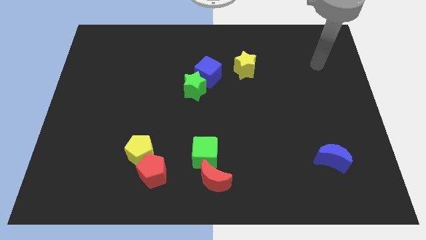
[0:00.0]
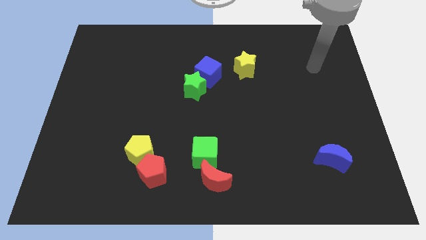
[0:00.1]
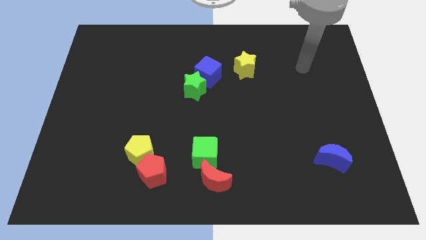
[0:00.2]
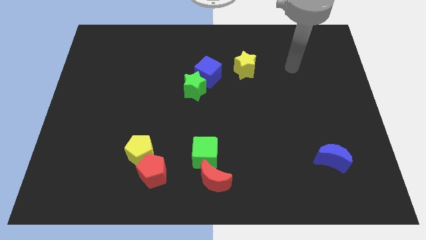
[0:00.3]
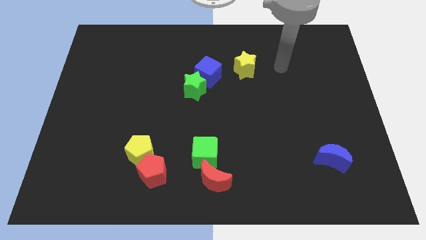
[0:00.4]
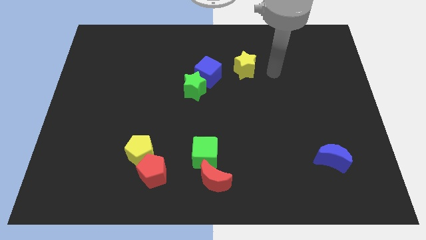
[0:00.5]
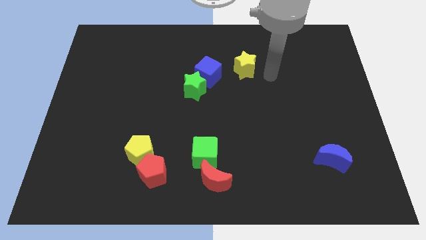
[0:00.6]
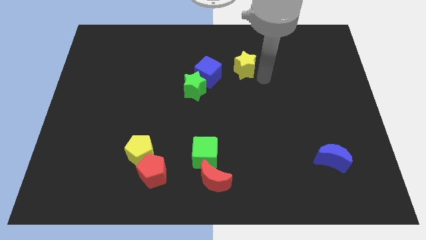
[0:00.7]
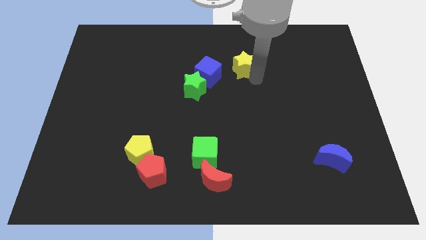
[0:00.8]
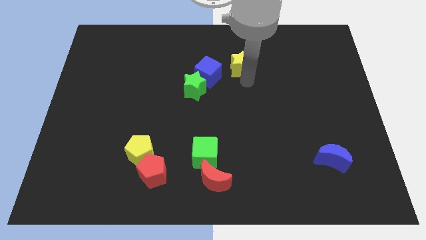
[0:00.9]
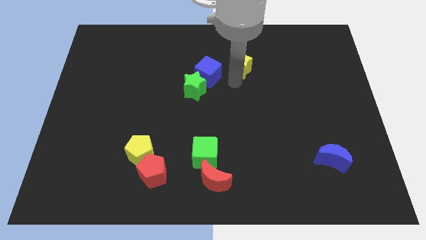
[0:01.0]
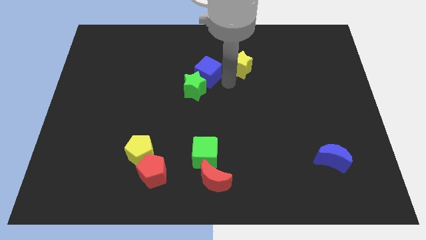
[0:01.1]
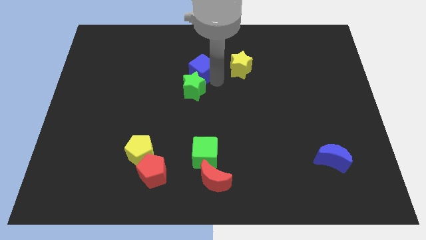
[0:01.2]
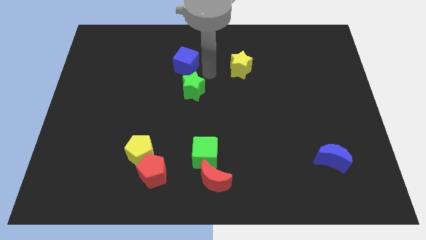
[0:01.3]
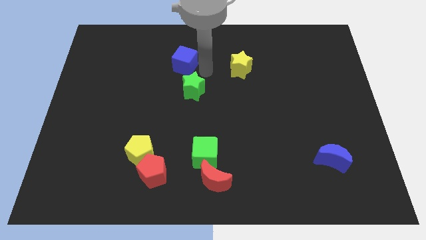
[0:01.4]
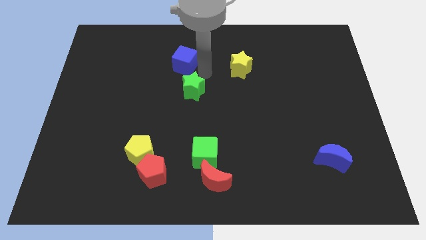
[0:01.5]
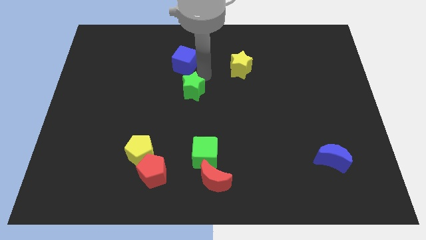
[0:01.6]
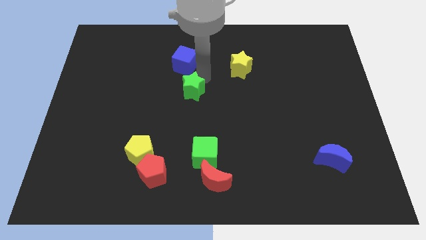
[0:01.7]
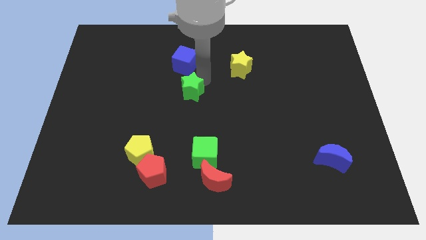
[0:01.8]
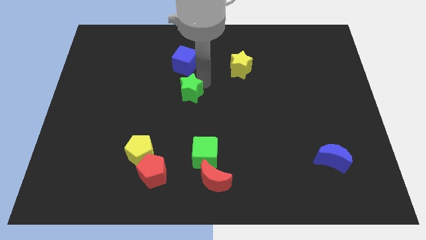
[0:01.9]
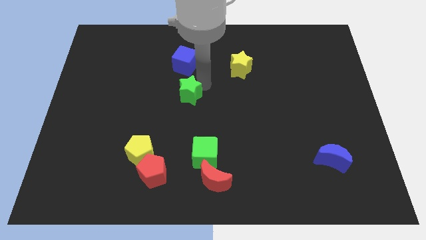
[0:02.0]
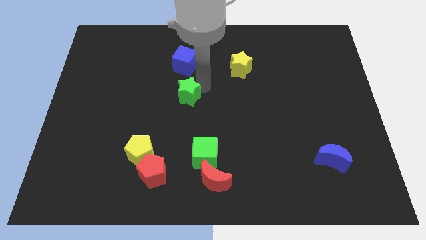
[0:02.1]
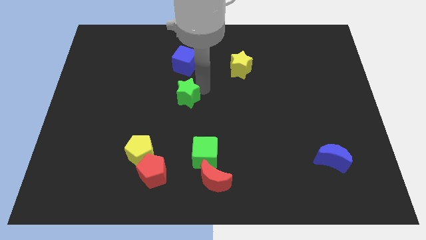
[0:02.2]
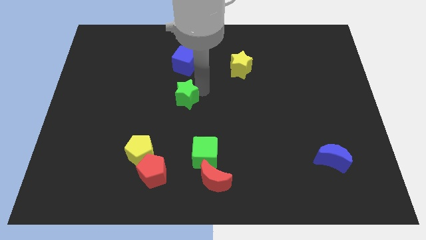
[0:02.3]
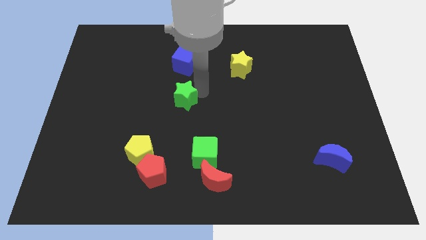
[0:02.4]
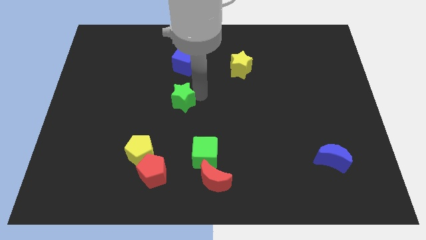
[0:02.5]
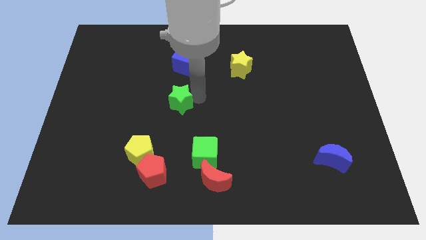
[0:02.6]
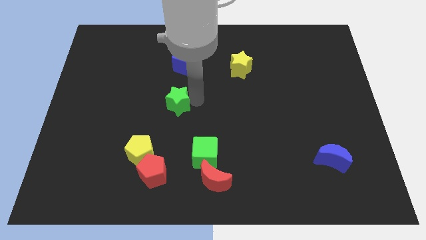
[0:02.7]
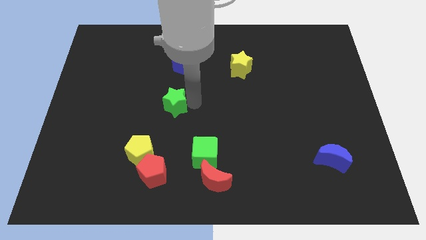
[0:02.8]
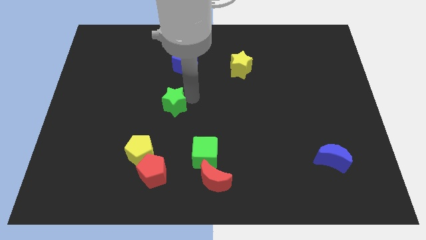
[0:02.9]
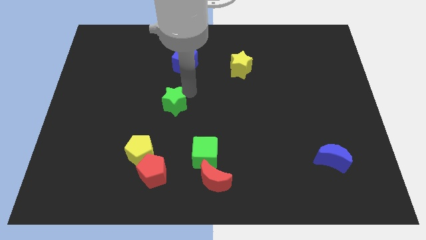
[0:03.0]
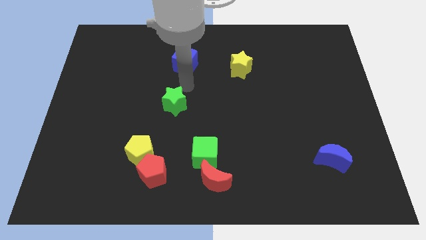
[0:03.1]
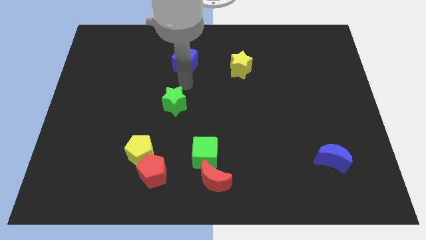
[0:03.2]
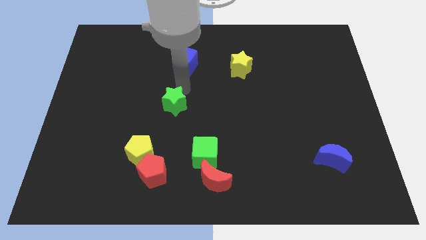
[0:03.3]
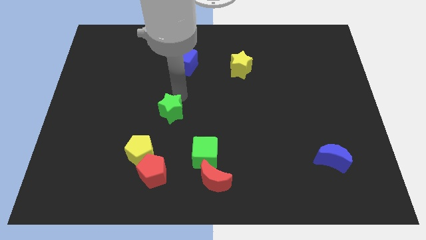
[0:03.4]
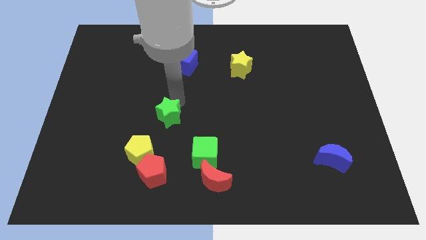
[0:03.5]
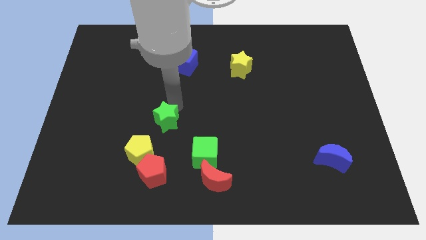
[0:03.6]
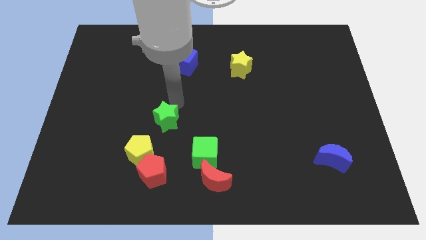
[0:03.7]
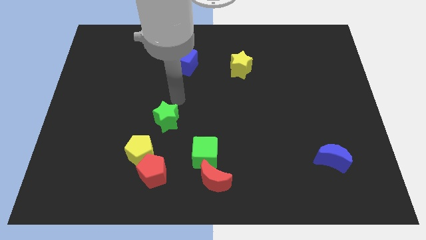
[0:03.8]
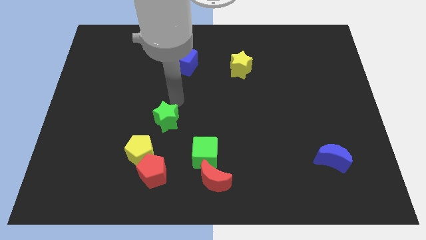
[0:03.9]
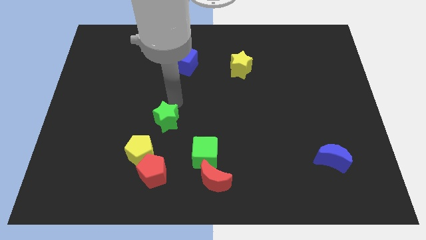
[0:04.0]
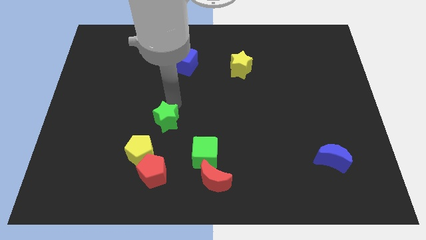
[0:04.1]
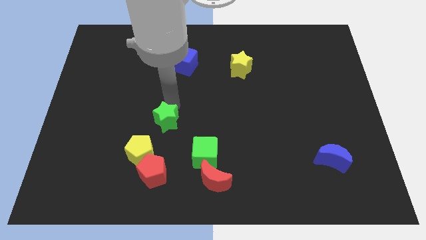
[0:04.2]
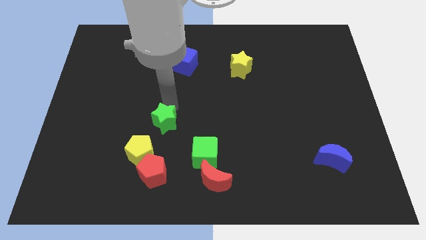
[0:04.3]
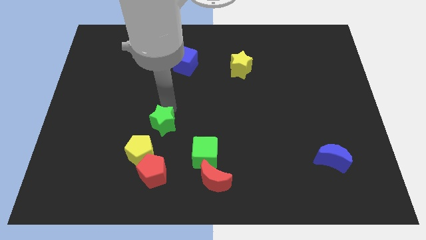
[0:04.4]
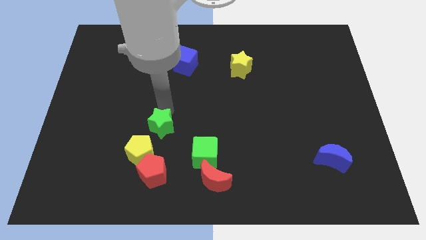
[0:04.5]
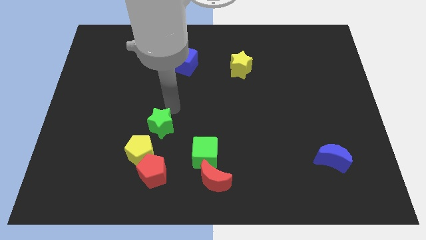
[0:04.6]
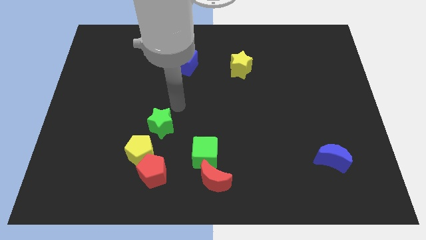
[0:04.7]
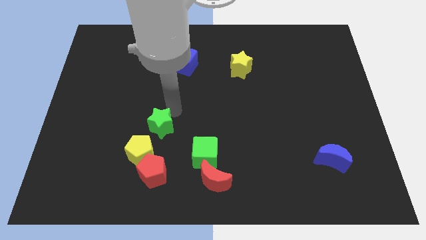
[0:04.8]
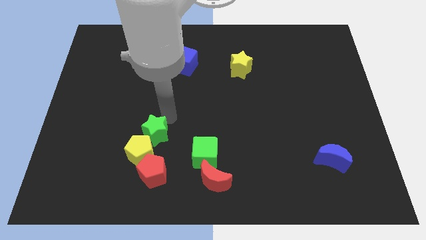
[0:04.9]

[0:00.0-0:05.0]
slide the green star towards the yellow pentagon

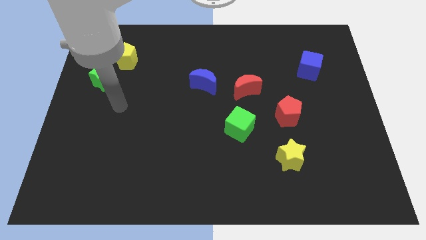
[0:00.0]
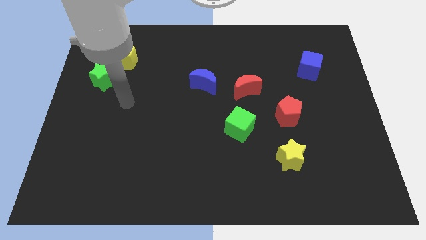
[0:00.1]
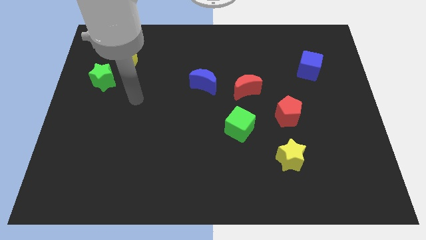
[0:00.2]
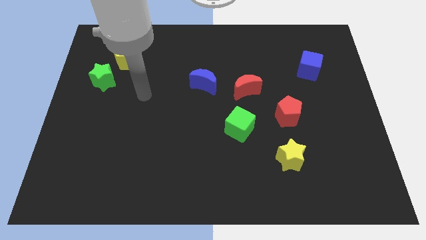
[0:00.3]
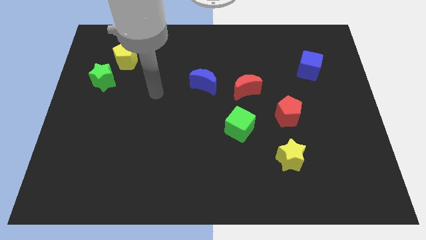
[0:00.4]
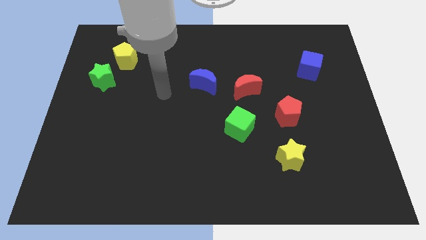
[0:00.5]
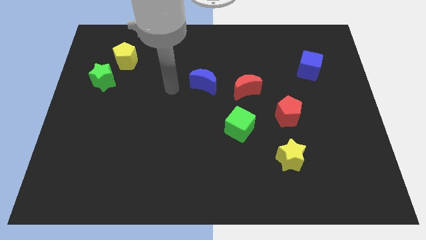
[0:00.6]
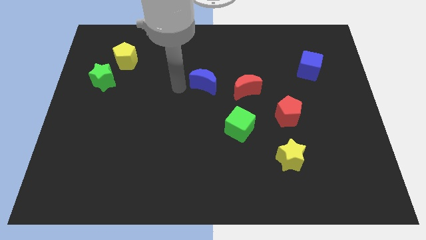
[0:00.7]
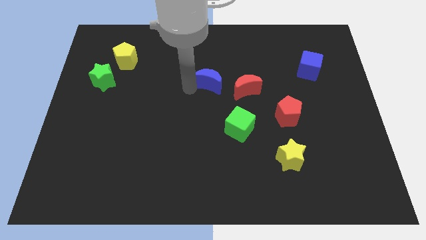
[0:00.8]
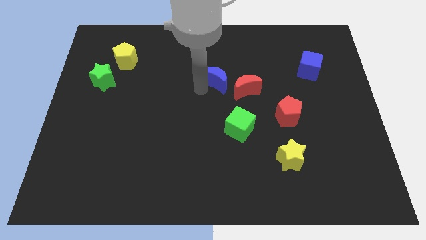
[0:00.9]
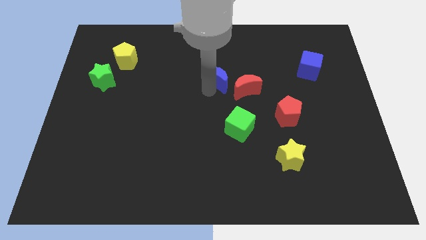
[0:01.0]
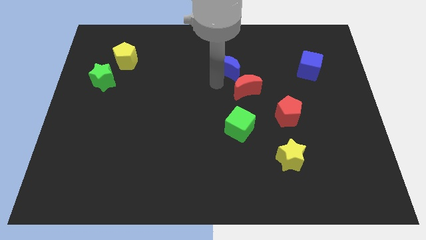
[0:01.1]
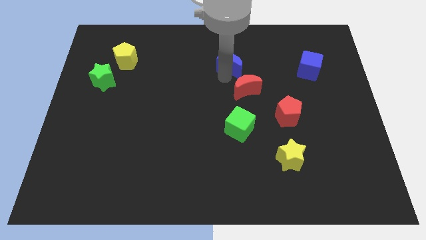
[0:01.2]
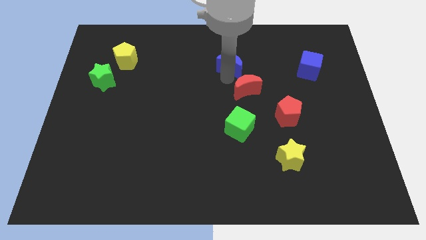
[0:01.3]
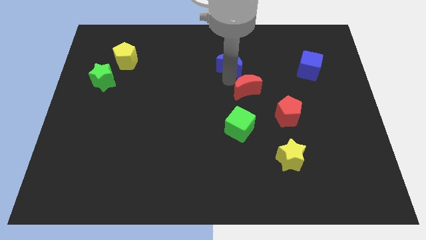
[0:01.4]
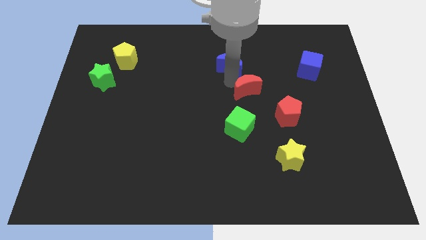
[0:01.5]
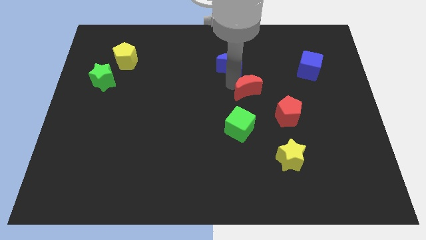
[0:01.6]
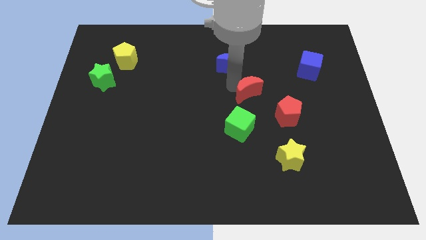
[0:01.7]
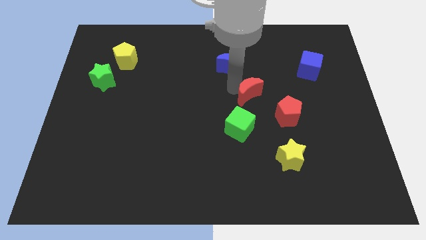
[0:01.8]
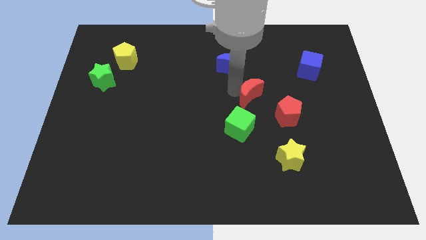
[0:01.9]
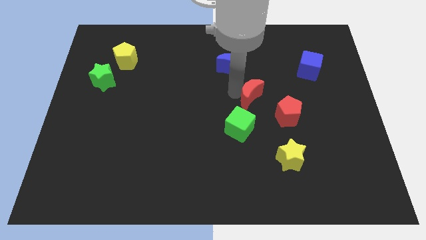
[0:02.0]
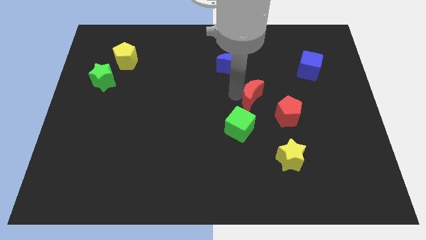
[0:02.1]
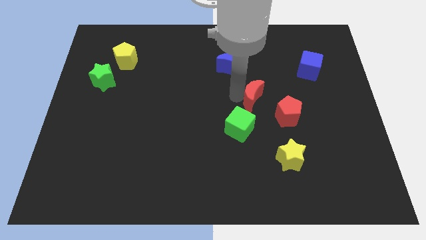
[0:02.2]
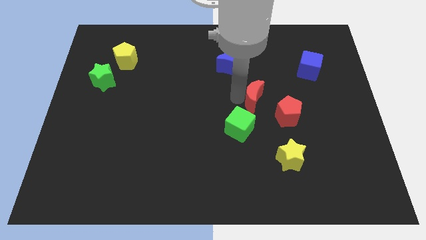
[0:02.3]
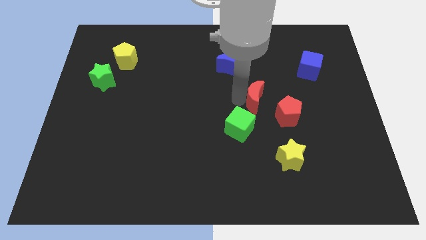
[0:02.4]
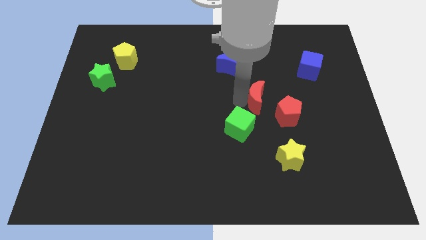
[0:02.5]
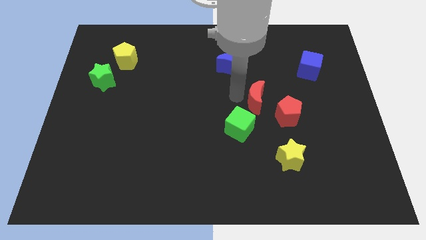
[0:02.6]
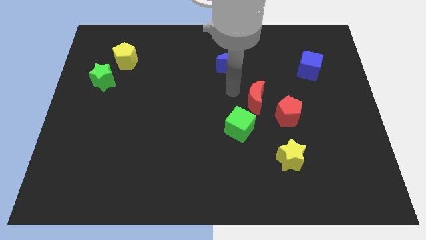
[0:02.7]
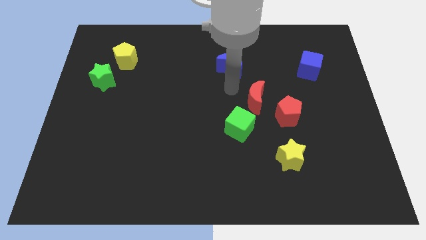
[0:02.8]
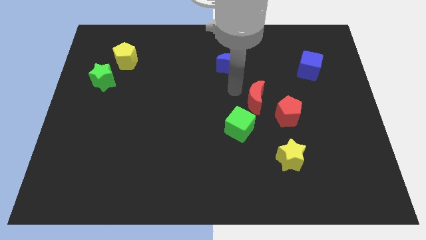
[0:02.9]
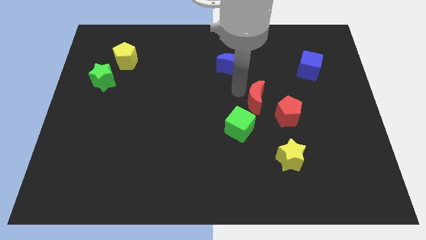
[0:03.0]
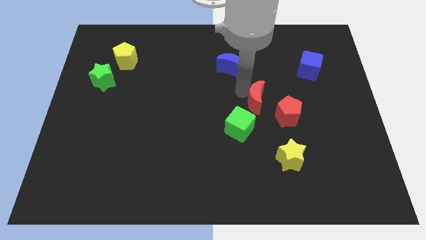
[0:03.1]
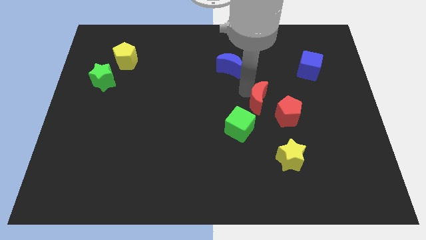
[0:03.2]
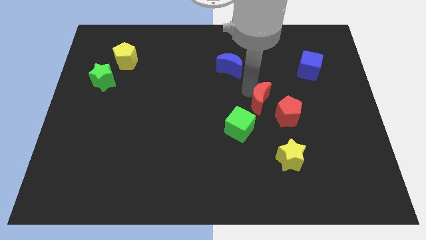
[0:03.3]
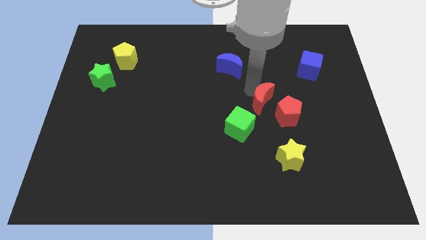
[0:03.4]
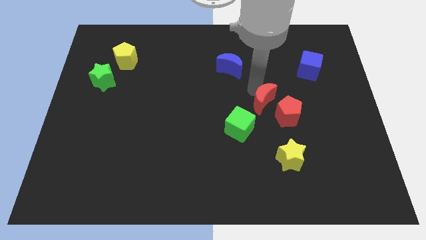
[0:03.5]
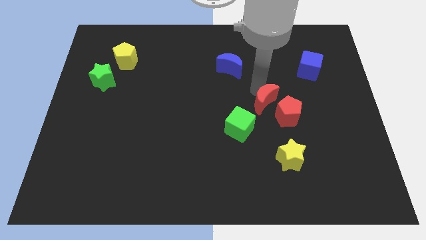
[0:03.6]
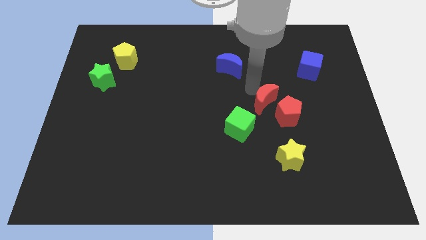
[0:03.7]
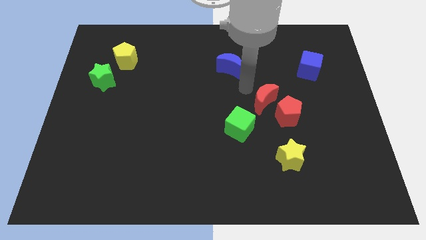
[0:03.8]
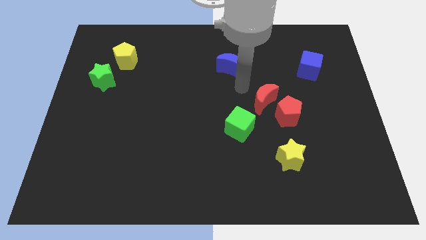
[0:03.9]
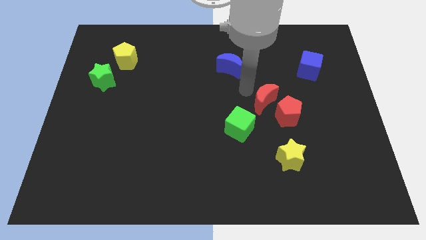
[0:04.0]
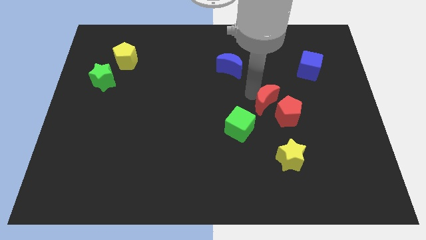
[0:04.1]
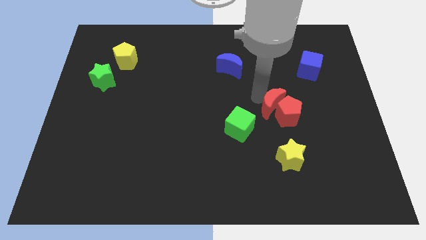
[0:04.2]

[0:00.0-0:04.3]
put the red moon close to the red pentagon
